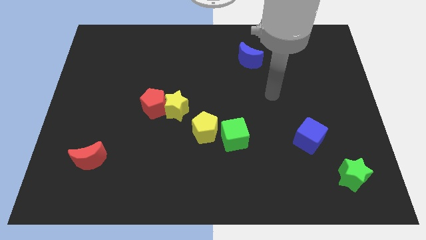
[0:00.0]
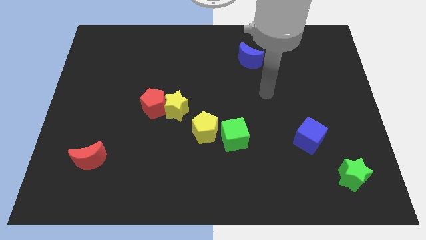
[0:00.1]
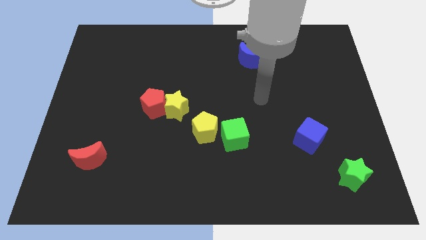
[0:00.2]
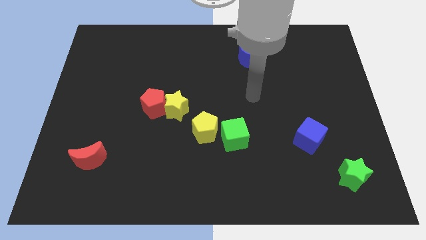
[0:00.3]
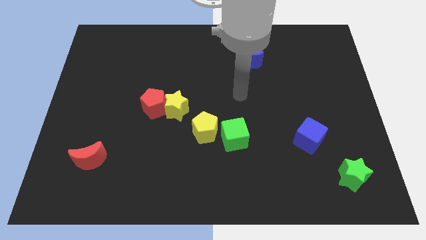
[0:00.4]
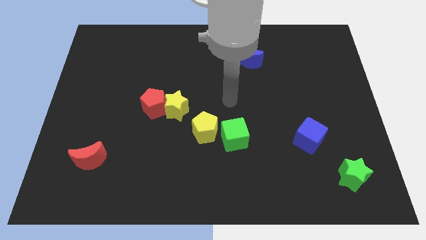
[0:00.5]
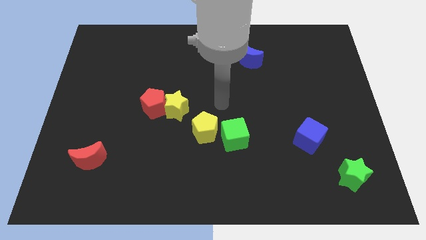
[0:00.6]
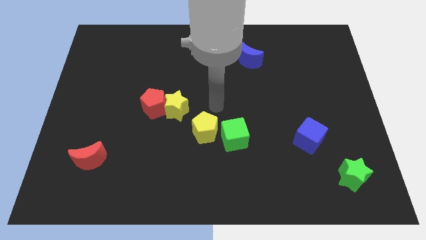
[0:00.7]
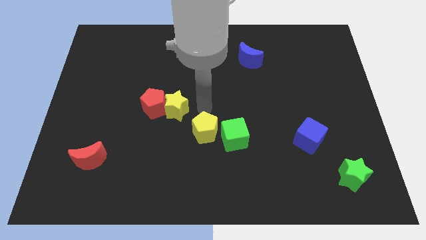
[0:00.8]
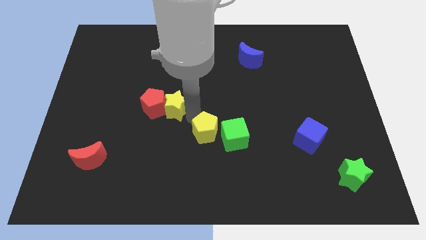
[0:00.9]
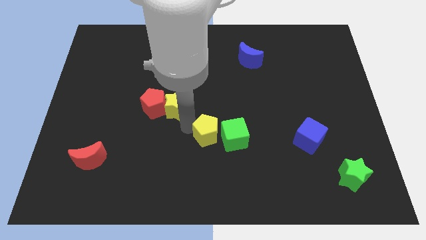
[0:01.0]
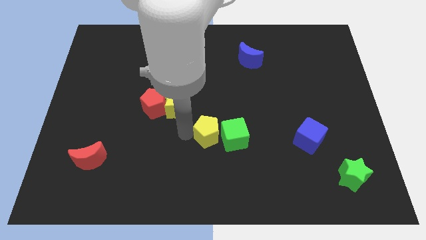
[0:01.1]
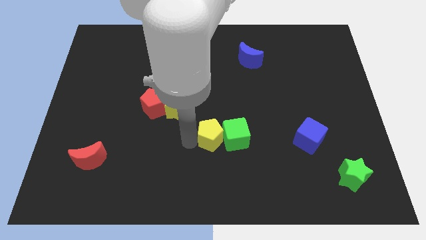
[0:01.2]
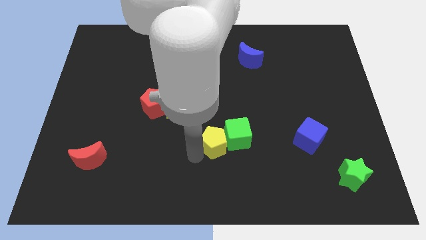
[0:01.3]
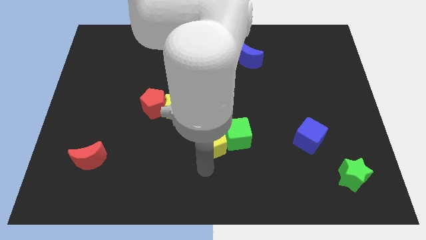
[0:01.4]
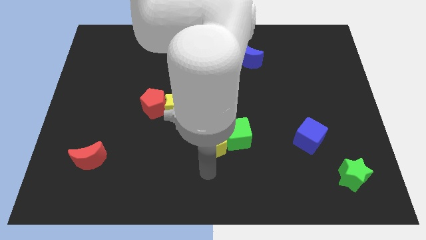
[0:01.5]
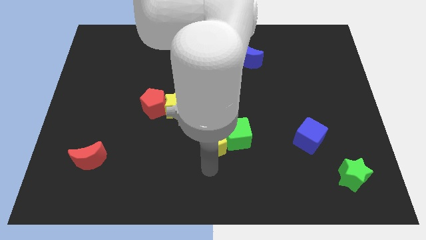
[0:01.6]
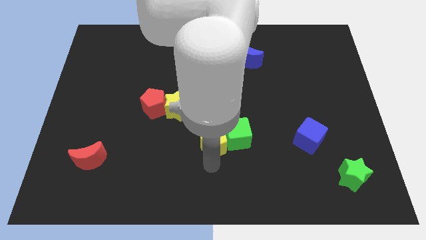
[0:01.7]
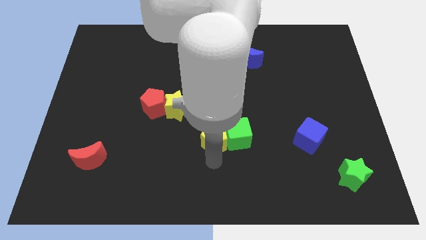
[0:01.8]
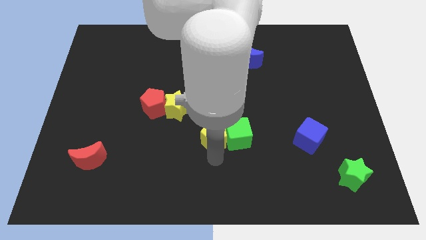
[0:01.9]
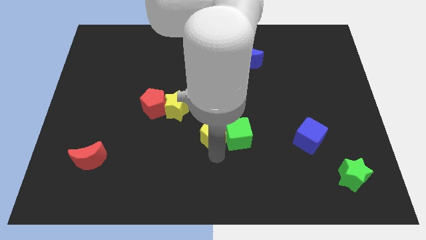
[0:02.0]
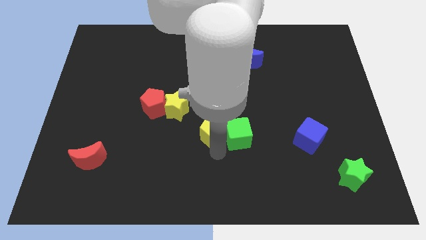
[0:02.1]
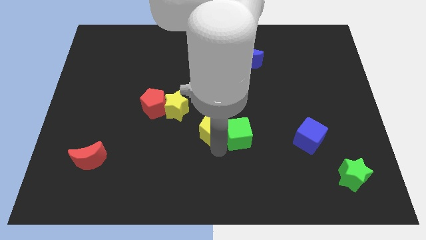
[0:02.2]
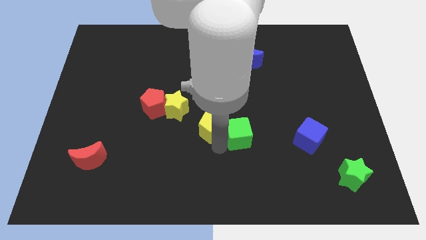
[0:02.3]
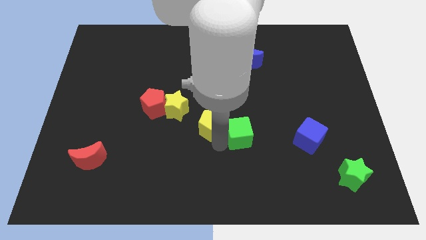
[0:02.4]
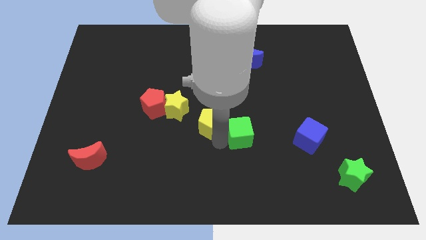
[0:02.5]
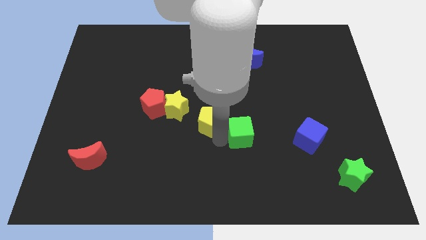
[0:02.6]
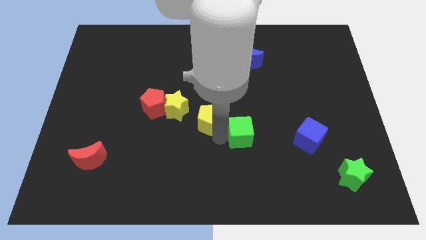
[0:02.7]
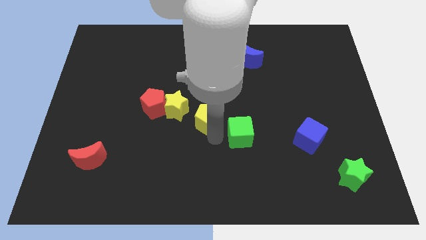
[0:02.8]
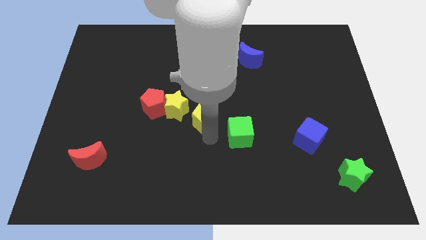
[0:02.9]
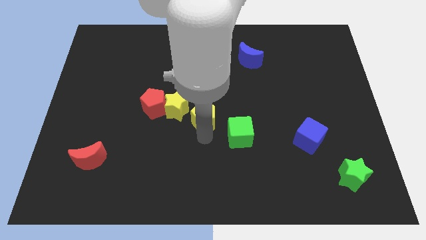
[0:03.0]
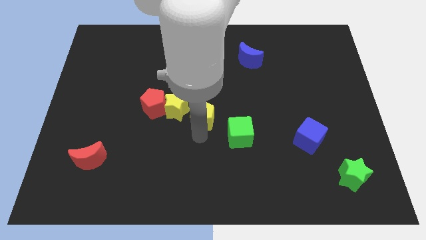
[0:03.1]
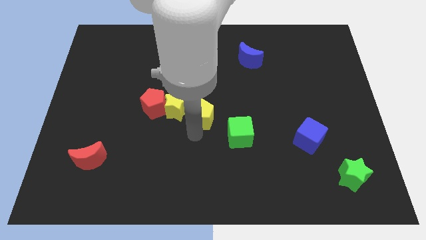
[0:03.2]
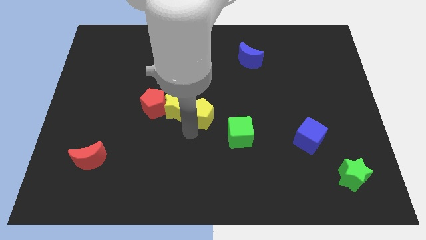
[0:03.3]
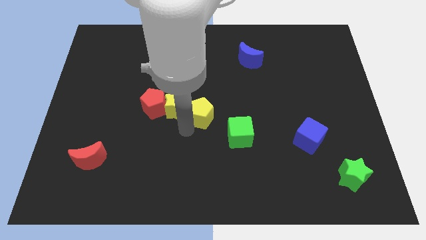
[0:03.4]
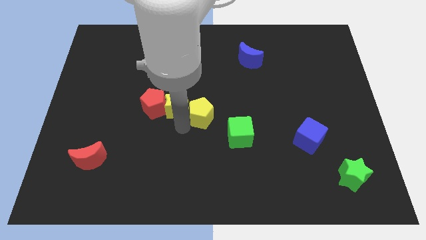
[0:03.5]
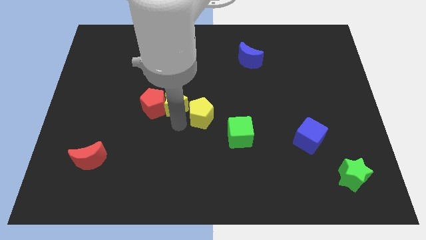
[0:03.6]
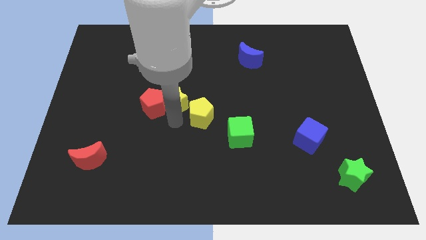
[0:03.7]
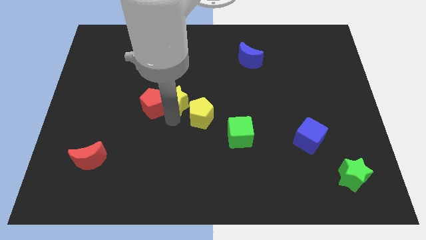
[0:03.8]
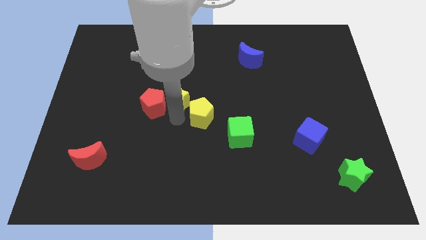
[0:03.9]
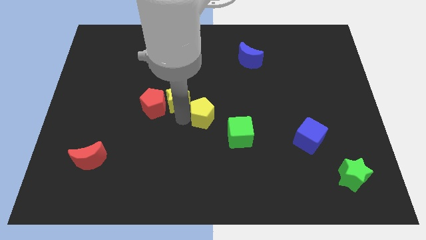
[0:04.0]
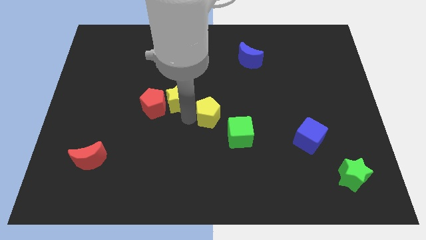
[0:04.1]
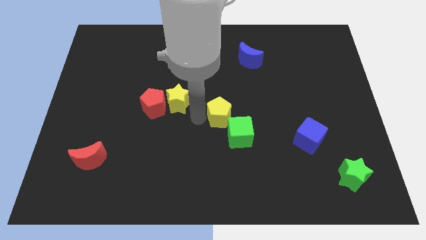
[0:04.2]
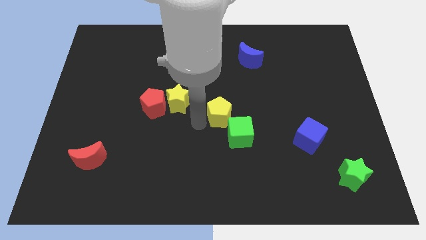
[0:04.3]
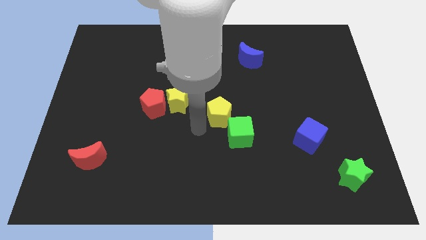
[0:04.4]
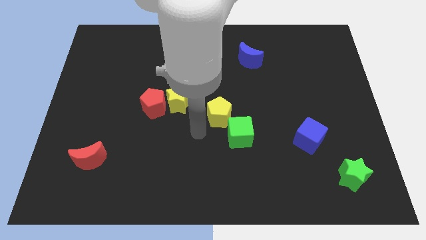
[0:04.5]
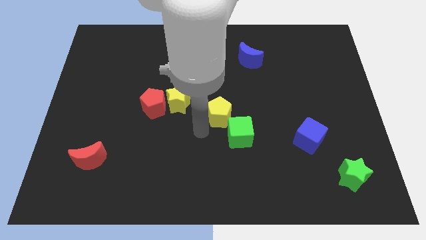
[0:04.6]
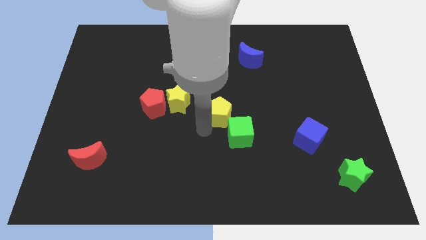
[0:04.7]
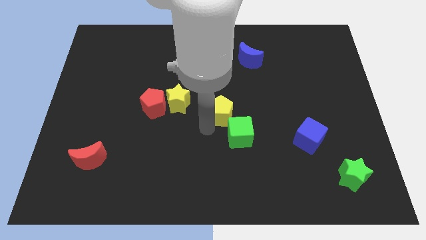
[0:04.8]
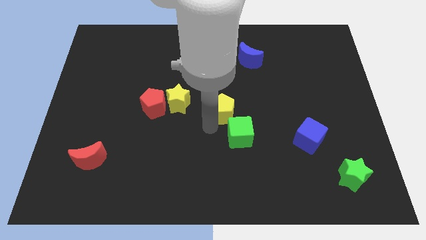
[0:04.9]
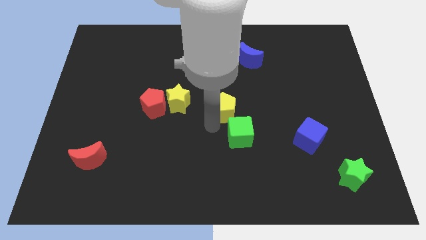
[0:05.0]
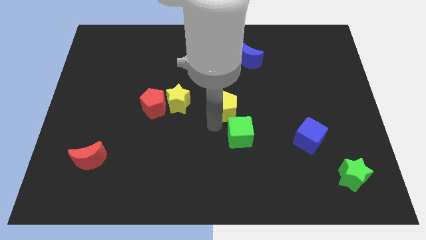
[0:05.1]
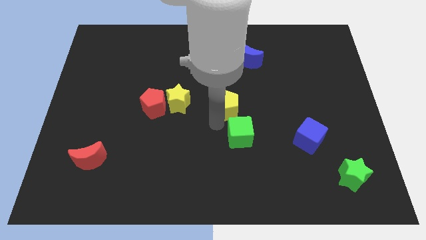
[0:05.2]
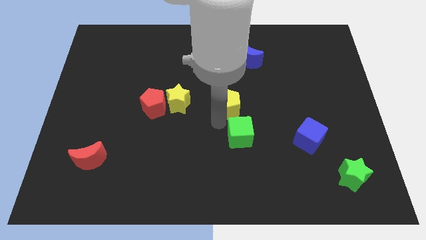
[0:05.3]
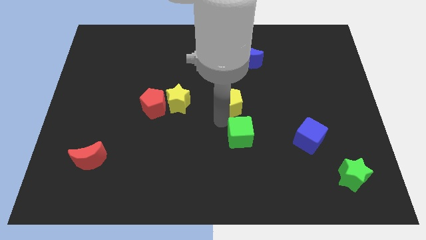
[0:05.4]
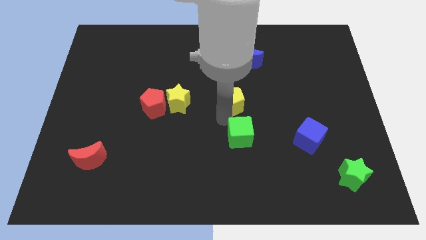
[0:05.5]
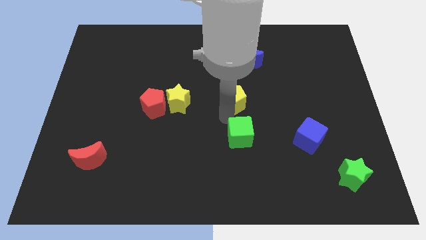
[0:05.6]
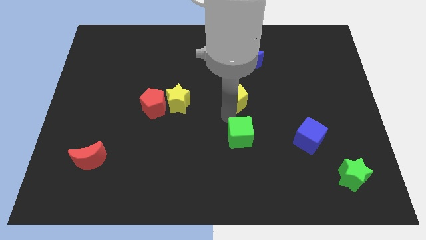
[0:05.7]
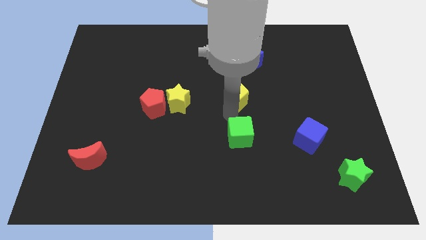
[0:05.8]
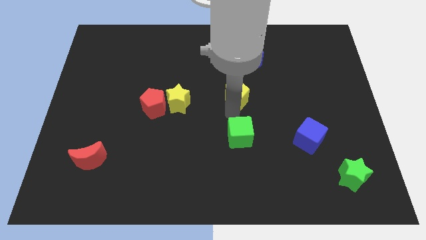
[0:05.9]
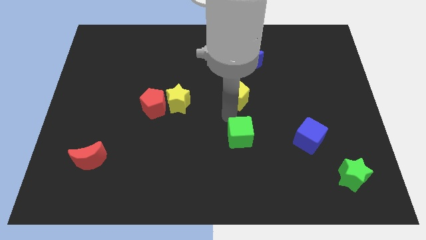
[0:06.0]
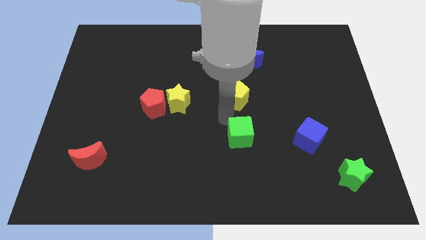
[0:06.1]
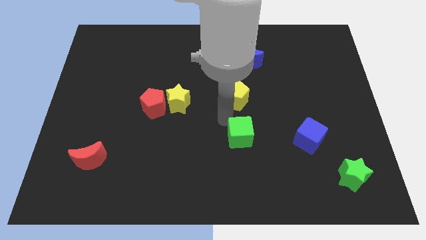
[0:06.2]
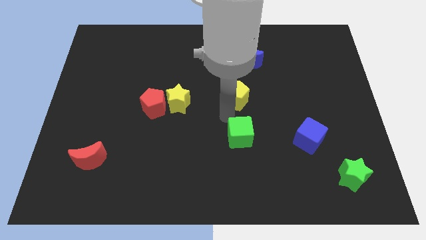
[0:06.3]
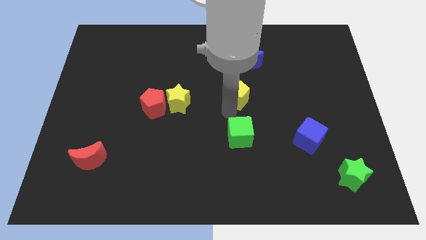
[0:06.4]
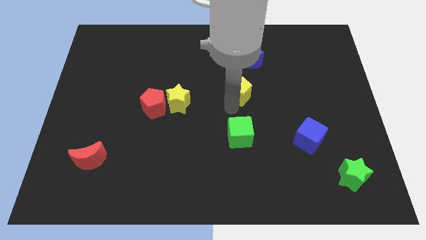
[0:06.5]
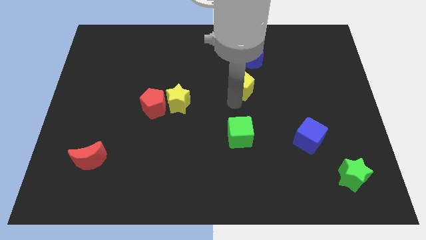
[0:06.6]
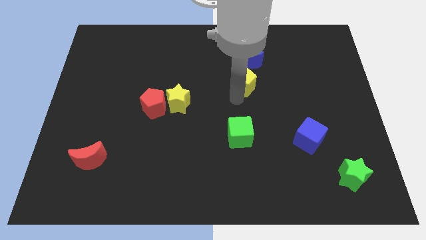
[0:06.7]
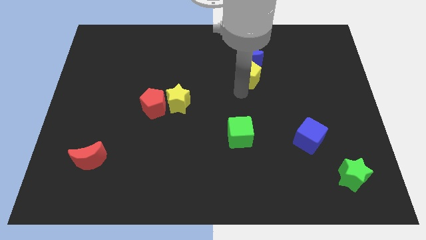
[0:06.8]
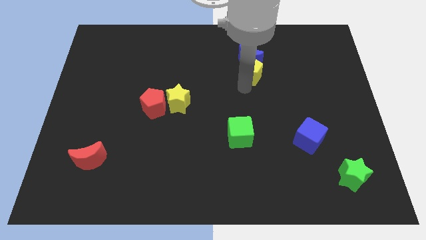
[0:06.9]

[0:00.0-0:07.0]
slide the yellow pentagon close to the blue moon

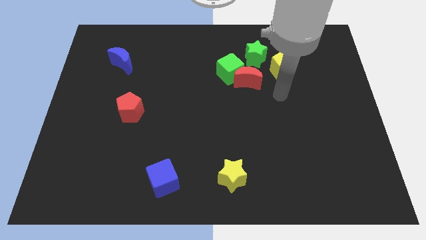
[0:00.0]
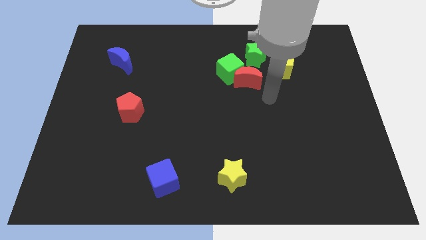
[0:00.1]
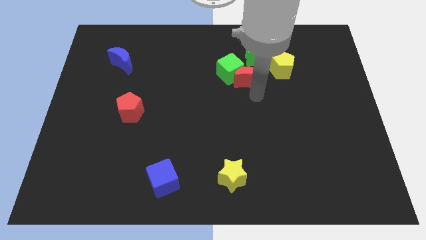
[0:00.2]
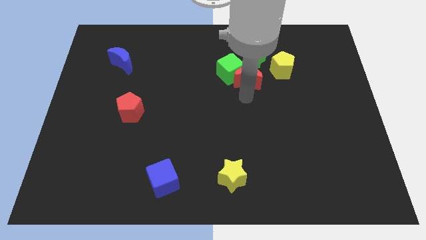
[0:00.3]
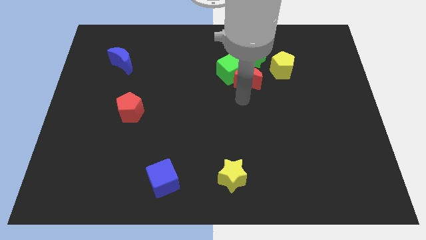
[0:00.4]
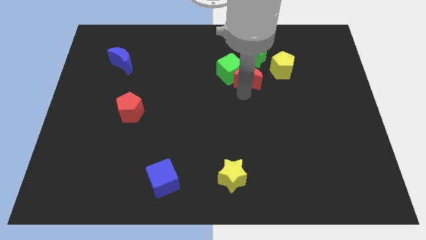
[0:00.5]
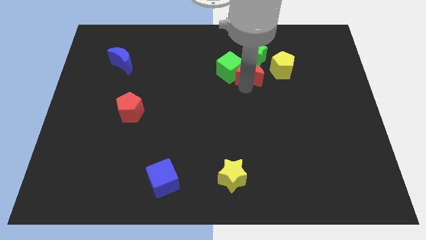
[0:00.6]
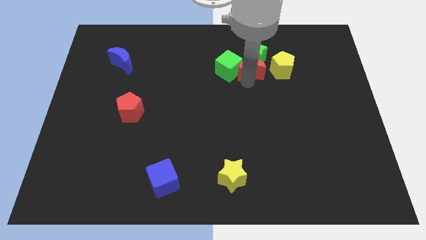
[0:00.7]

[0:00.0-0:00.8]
slide the red moon towards the green star
